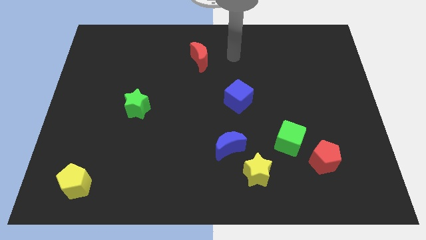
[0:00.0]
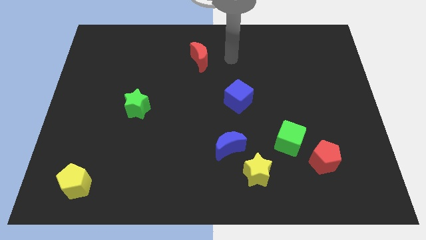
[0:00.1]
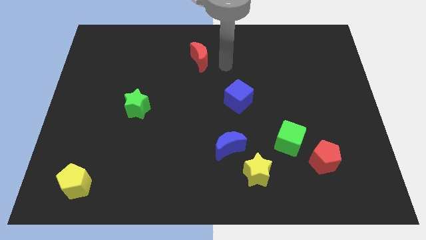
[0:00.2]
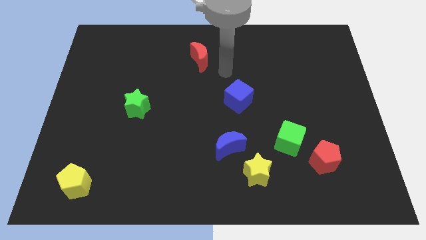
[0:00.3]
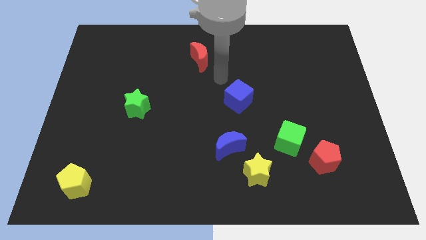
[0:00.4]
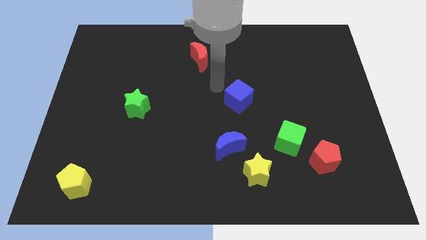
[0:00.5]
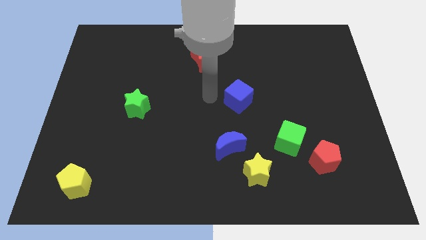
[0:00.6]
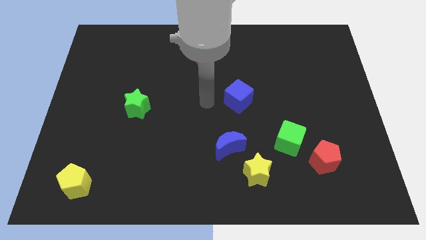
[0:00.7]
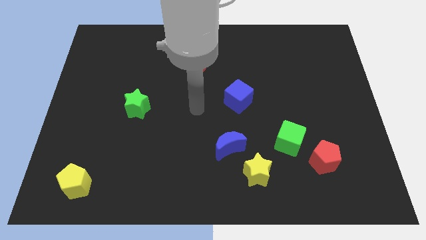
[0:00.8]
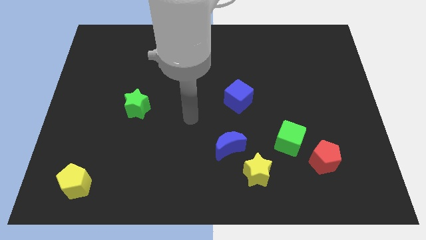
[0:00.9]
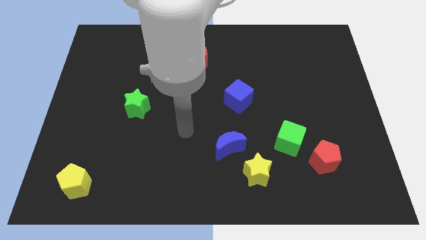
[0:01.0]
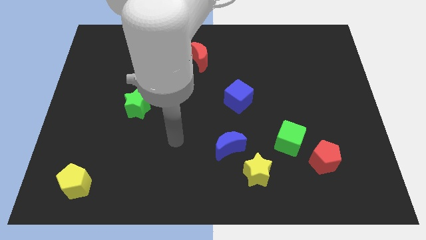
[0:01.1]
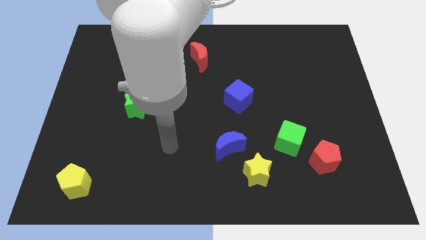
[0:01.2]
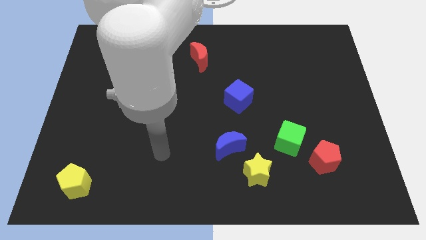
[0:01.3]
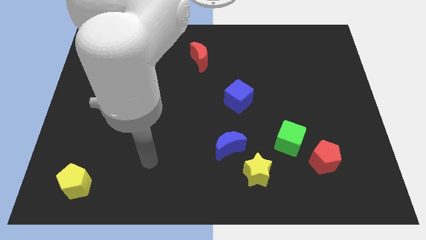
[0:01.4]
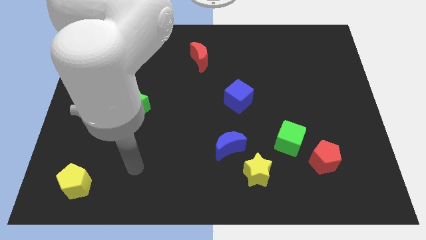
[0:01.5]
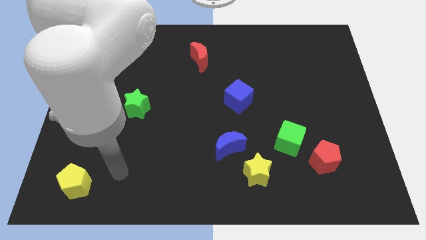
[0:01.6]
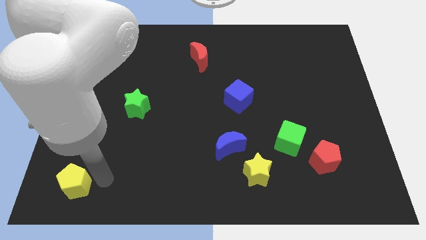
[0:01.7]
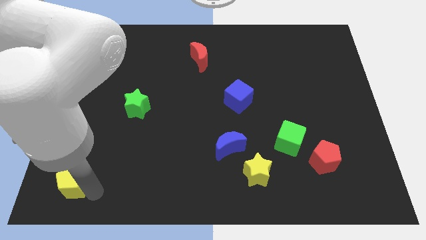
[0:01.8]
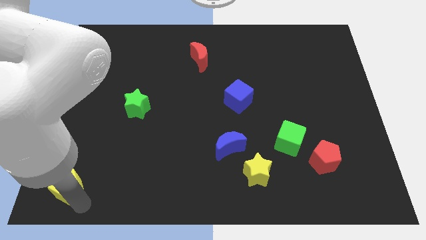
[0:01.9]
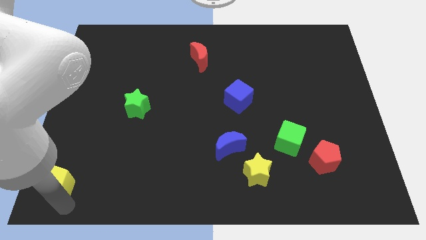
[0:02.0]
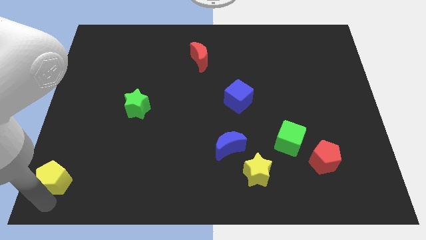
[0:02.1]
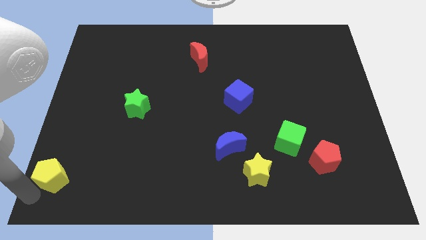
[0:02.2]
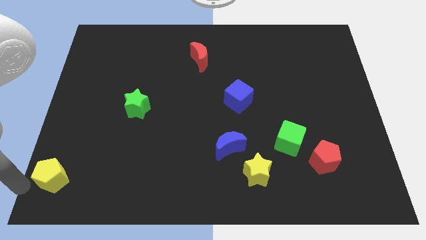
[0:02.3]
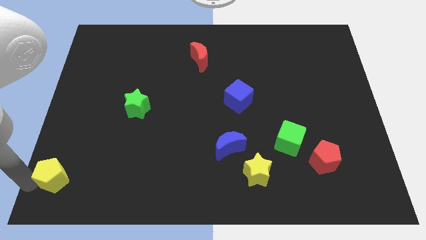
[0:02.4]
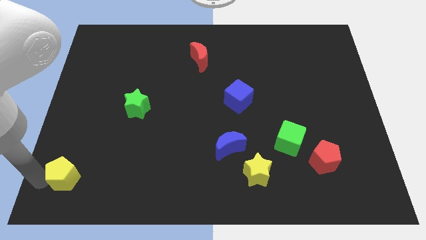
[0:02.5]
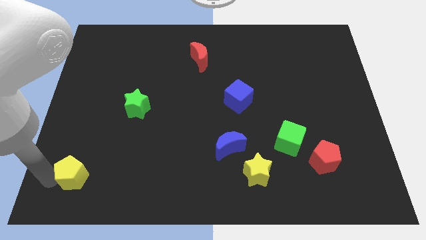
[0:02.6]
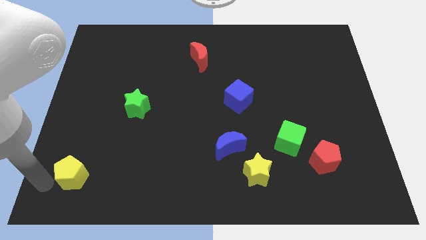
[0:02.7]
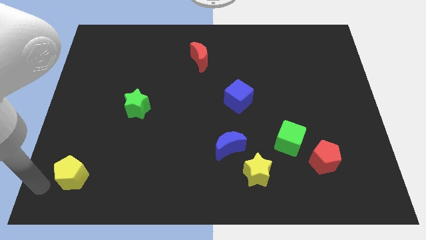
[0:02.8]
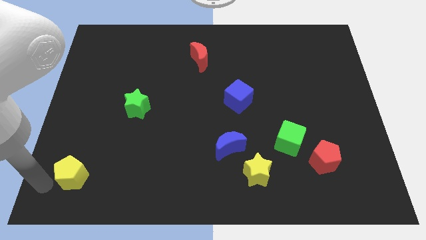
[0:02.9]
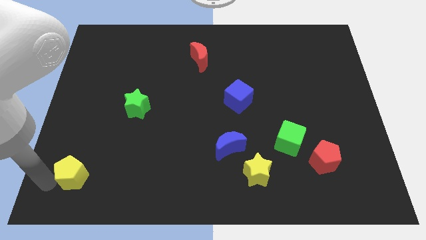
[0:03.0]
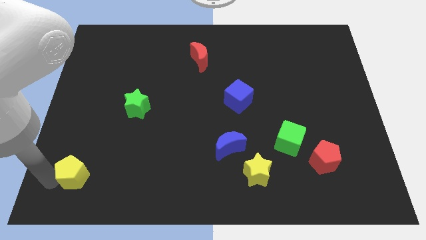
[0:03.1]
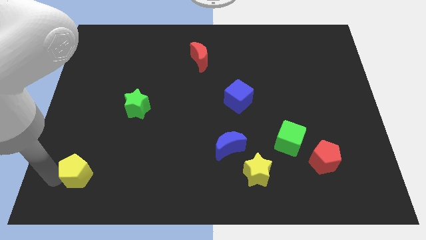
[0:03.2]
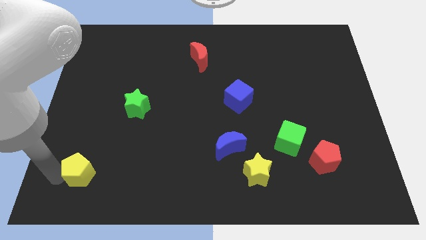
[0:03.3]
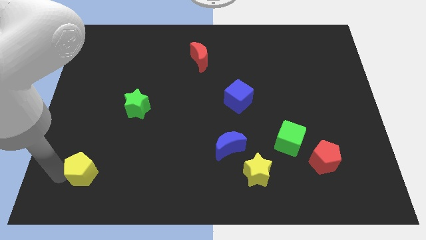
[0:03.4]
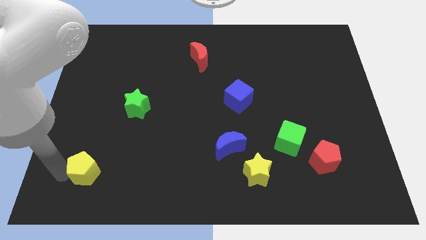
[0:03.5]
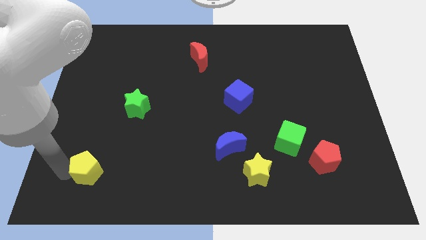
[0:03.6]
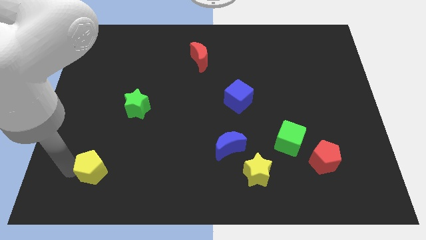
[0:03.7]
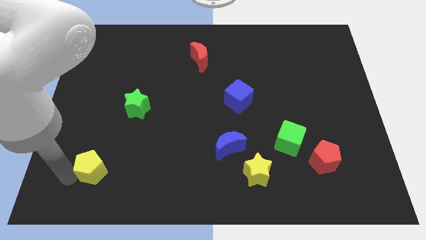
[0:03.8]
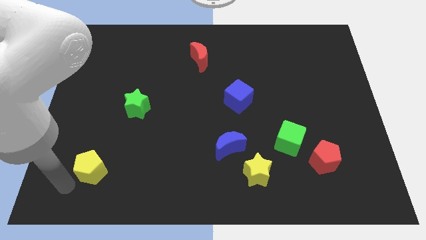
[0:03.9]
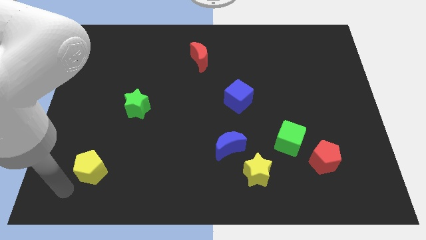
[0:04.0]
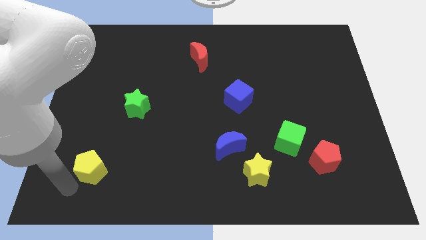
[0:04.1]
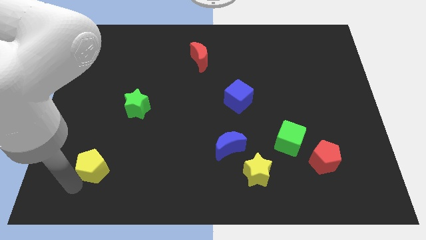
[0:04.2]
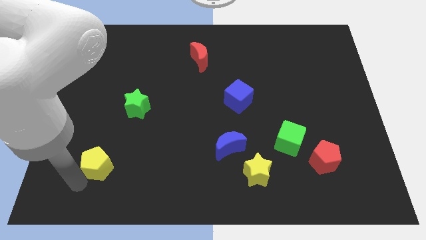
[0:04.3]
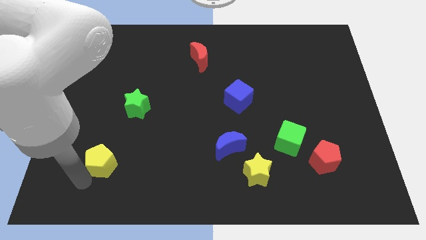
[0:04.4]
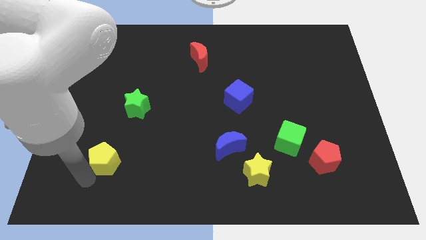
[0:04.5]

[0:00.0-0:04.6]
push the yellow pentagon somewhat up and then to the right

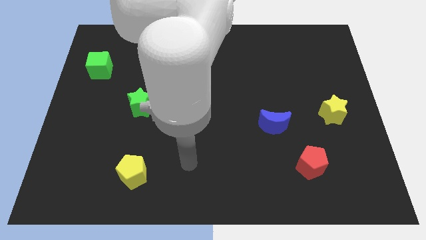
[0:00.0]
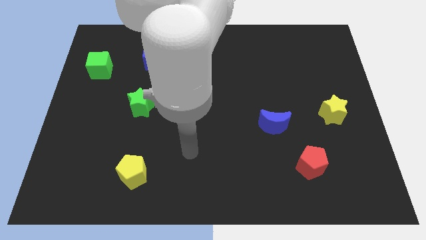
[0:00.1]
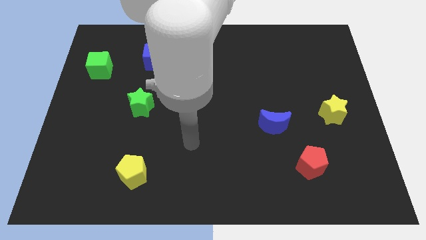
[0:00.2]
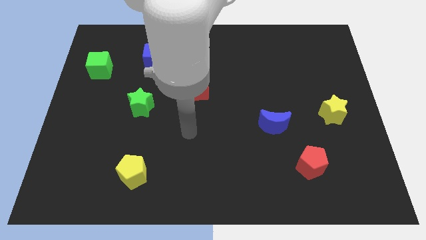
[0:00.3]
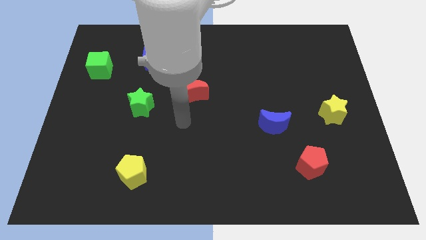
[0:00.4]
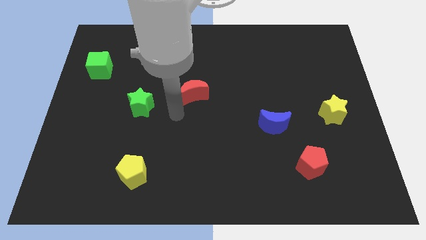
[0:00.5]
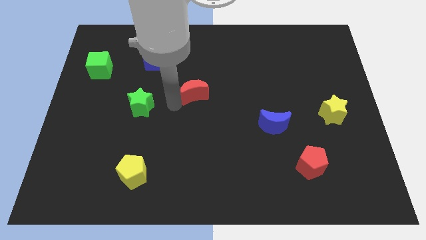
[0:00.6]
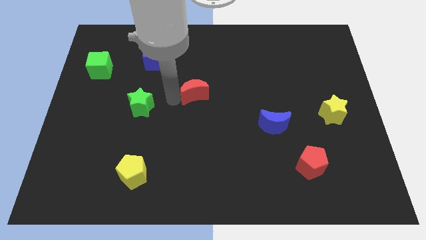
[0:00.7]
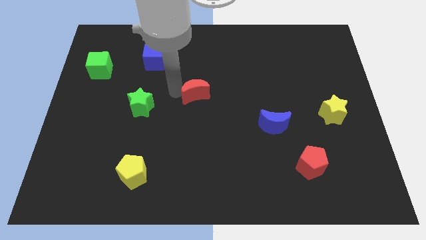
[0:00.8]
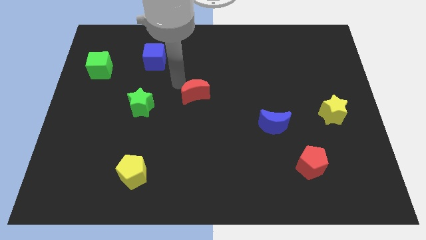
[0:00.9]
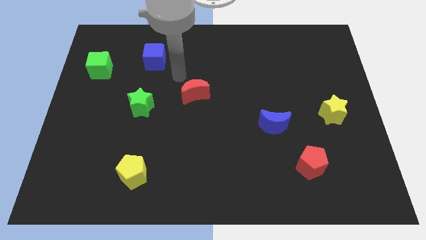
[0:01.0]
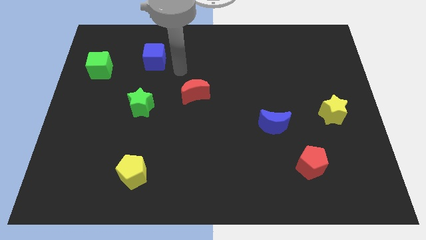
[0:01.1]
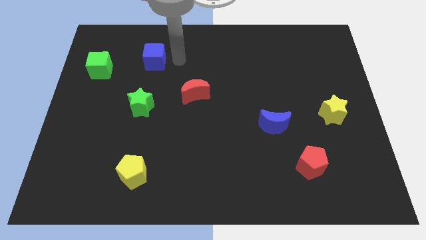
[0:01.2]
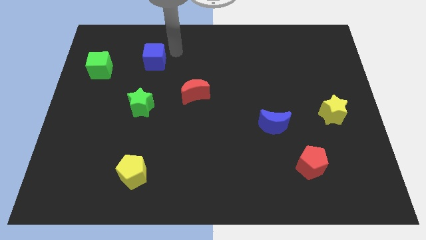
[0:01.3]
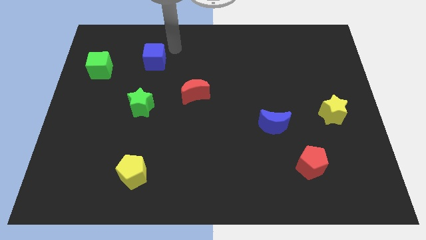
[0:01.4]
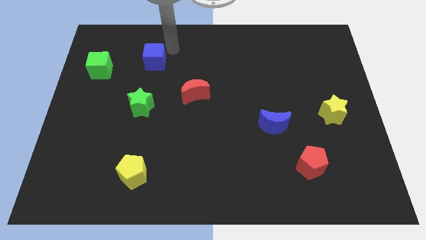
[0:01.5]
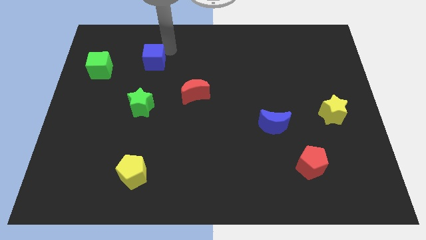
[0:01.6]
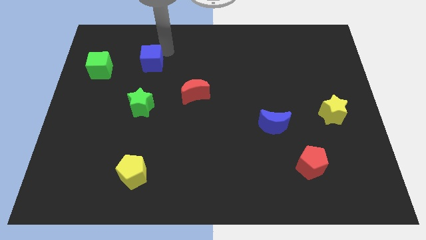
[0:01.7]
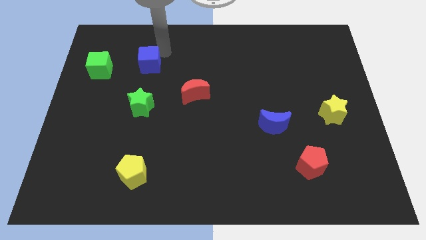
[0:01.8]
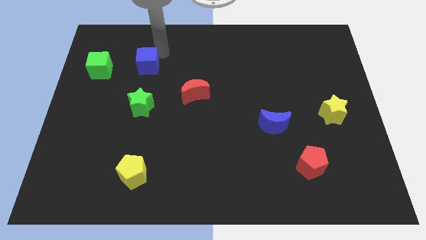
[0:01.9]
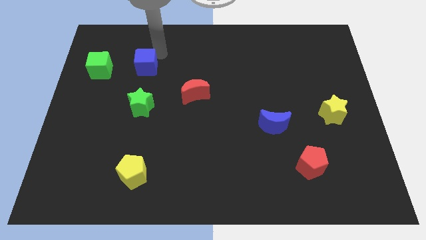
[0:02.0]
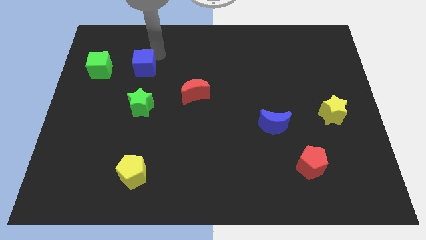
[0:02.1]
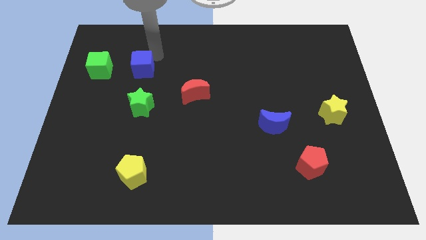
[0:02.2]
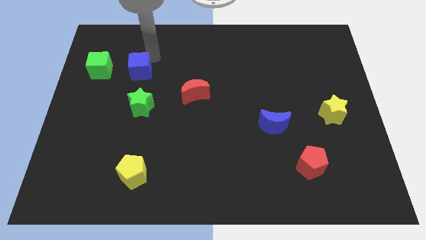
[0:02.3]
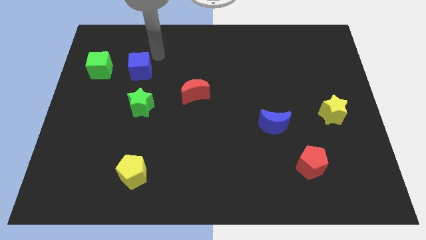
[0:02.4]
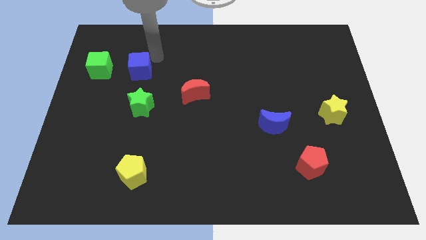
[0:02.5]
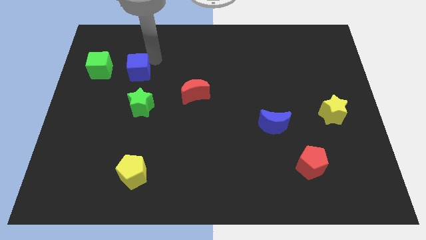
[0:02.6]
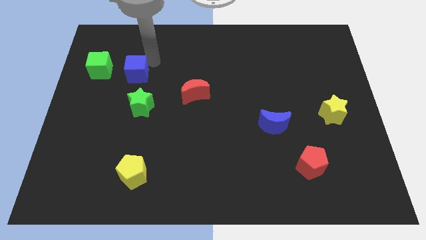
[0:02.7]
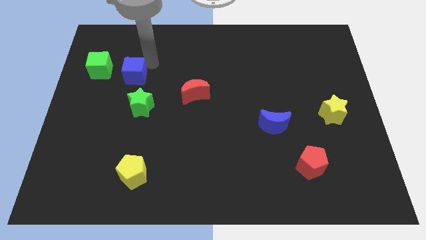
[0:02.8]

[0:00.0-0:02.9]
slide the blue cube down and left a little bit

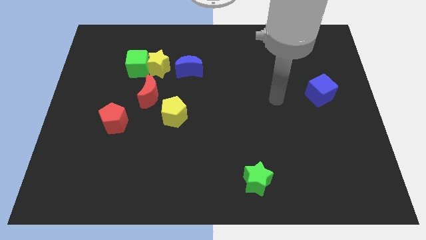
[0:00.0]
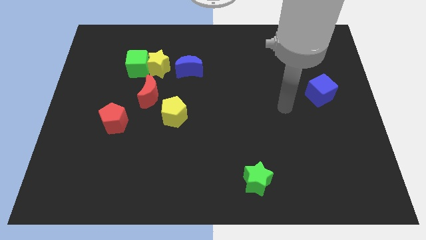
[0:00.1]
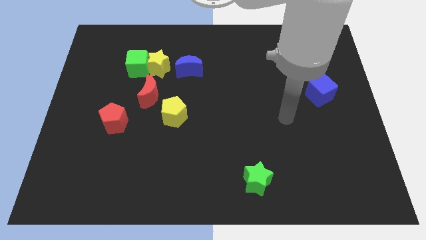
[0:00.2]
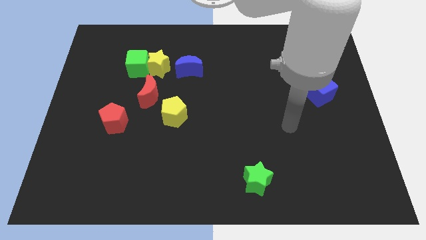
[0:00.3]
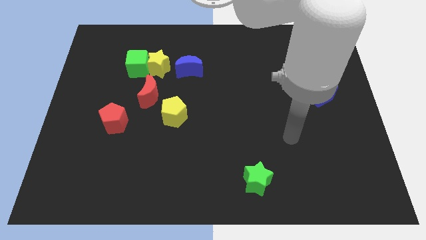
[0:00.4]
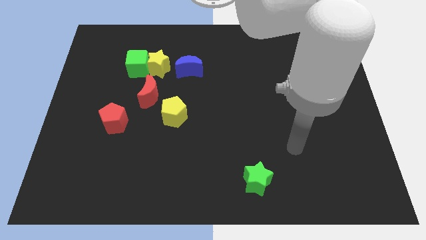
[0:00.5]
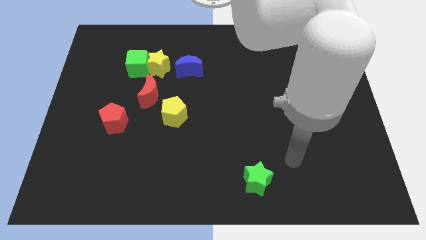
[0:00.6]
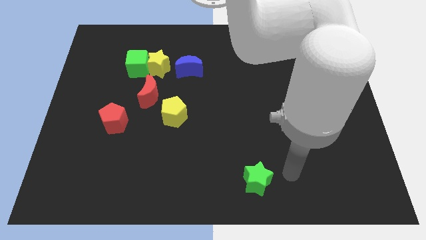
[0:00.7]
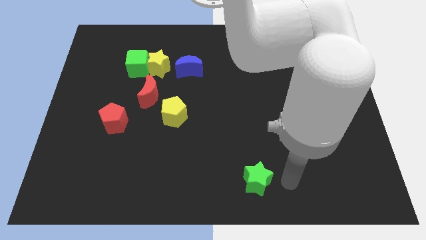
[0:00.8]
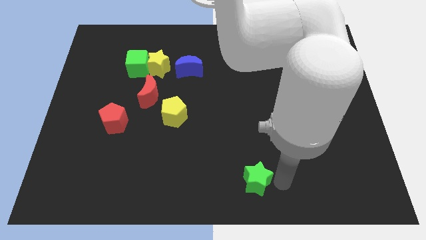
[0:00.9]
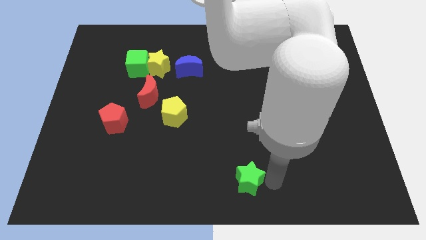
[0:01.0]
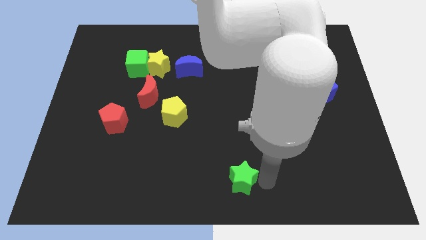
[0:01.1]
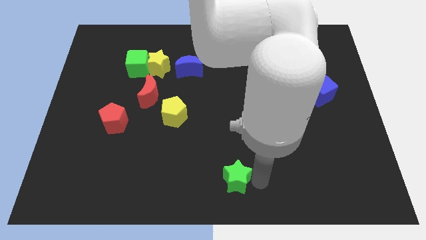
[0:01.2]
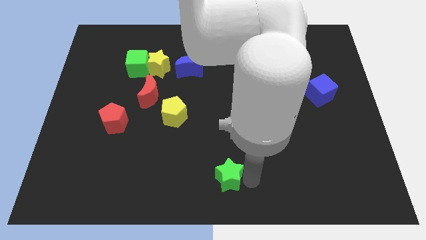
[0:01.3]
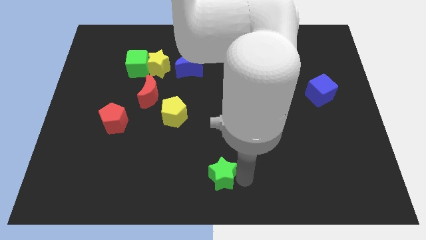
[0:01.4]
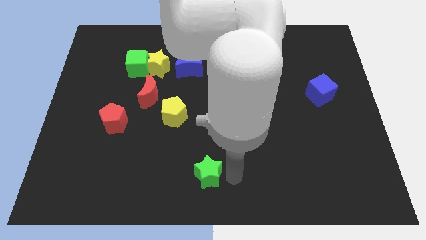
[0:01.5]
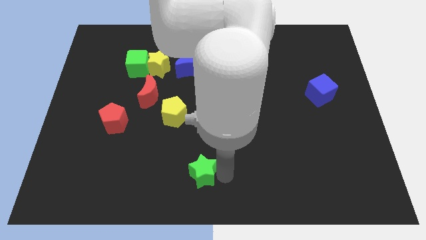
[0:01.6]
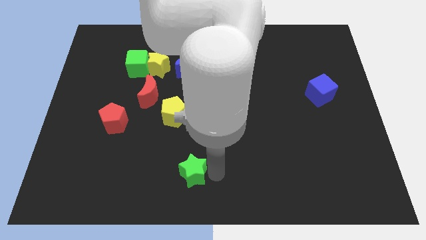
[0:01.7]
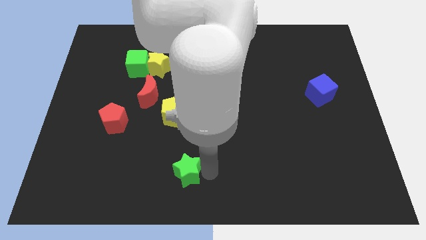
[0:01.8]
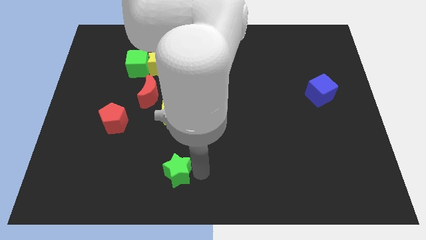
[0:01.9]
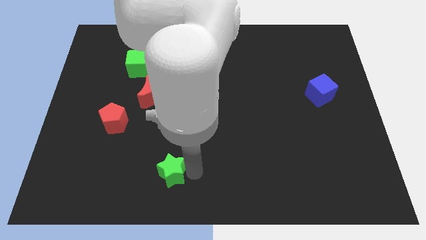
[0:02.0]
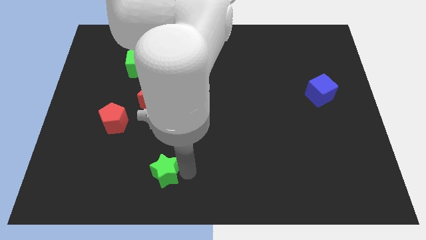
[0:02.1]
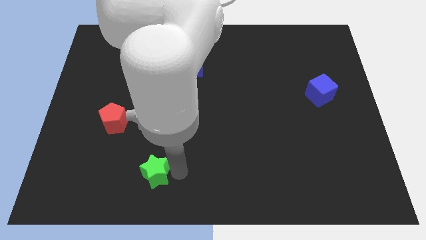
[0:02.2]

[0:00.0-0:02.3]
push the green star left
